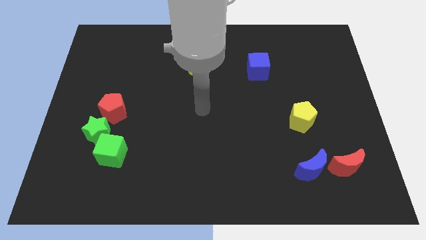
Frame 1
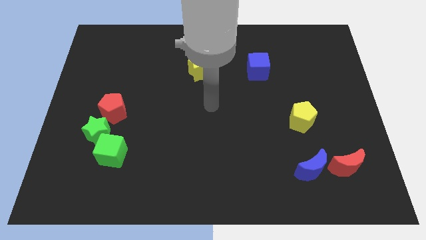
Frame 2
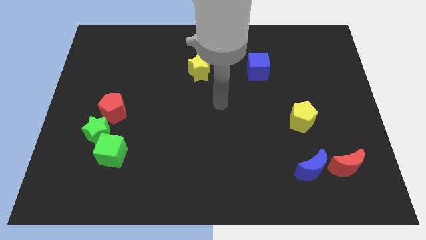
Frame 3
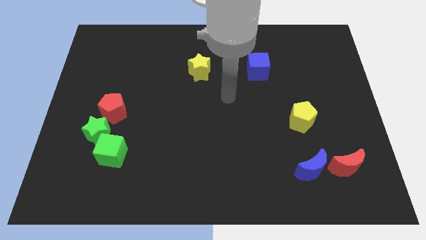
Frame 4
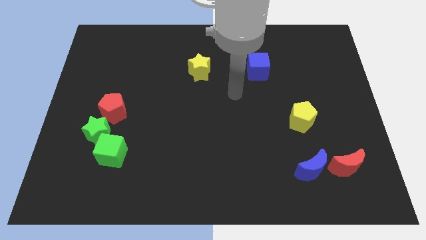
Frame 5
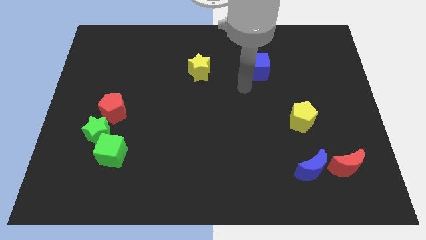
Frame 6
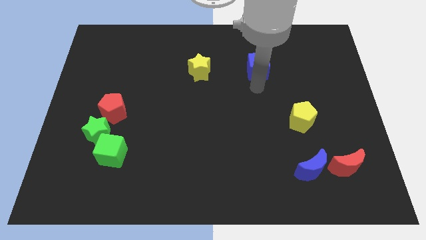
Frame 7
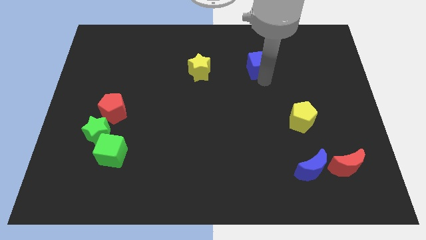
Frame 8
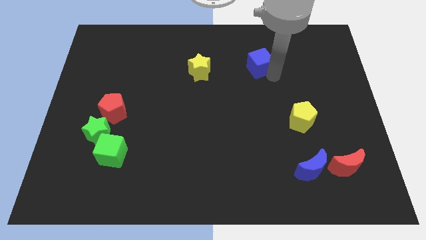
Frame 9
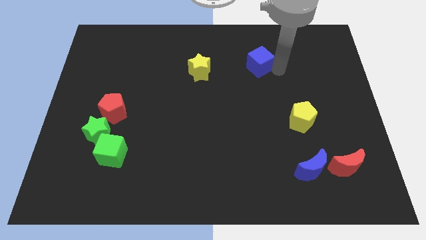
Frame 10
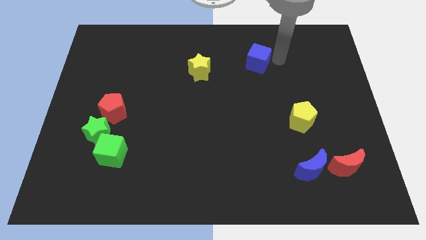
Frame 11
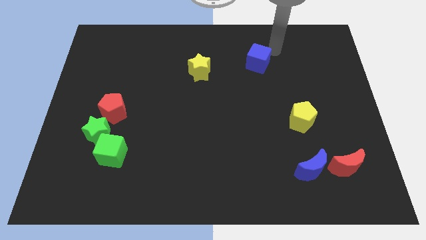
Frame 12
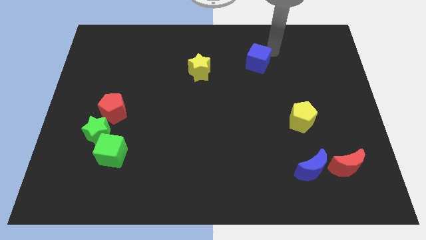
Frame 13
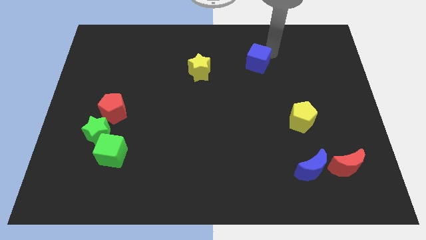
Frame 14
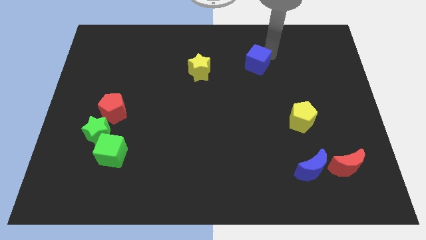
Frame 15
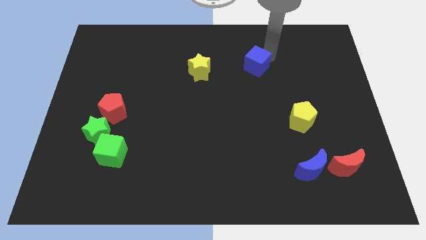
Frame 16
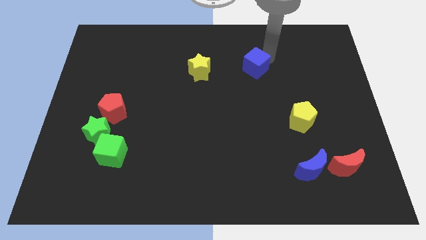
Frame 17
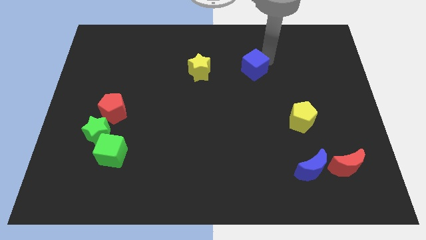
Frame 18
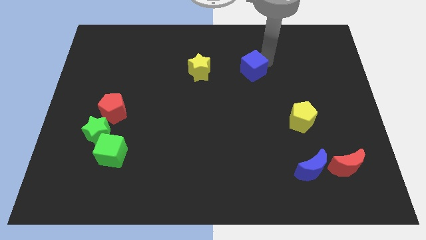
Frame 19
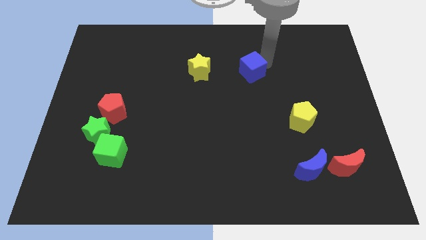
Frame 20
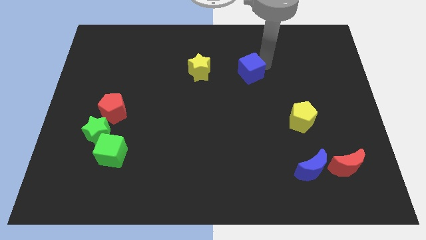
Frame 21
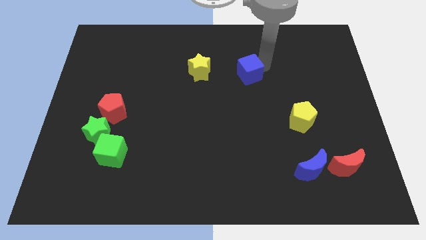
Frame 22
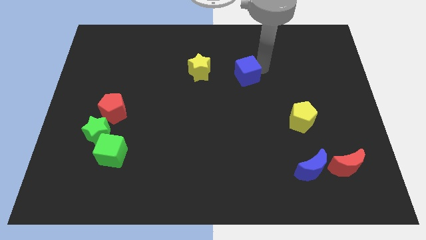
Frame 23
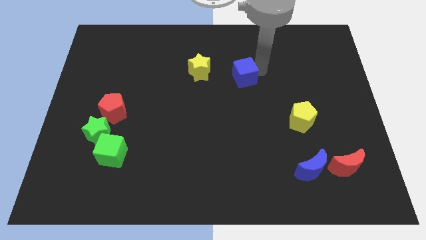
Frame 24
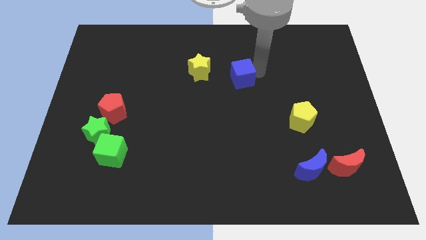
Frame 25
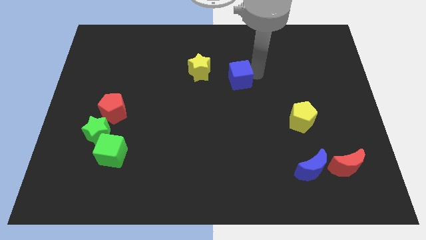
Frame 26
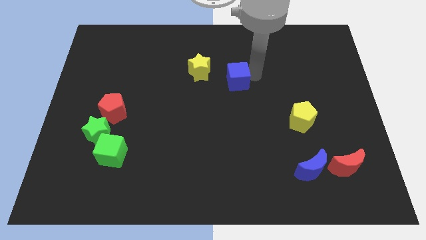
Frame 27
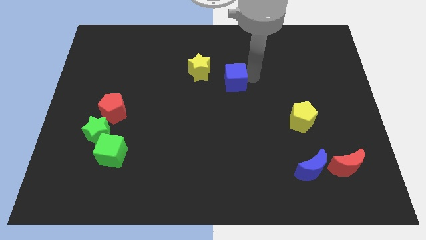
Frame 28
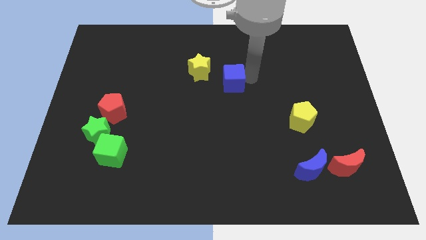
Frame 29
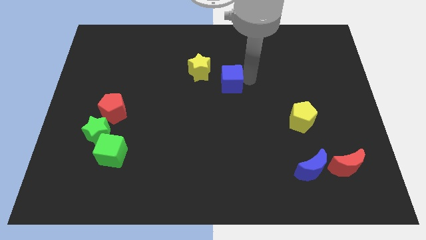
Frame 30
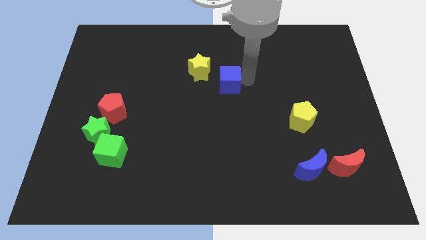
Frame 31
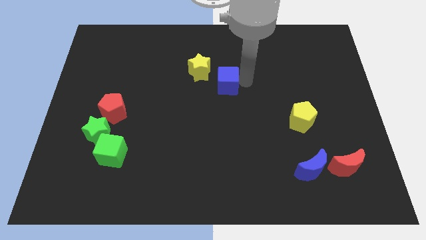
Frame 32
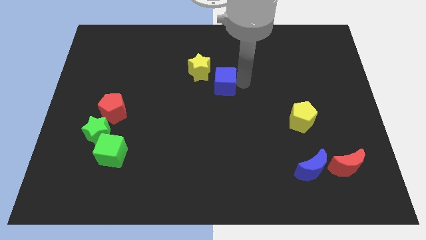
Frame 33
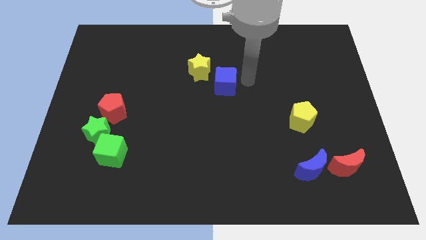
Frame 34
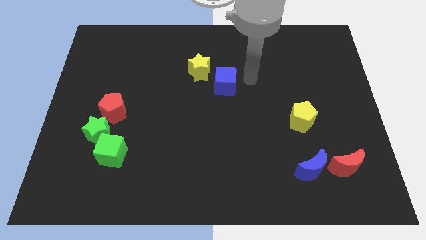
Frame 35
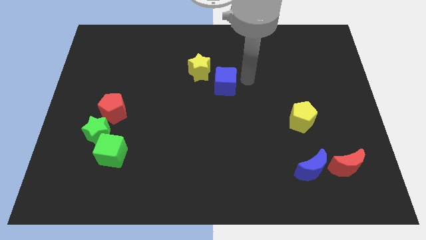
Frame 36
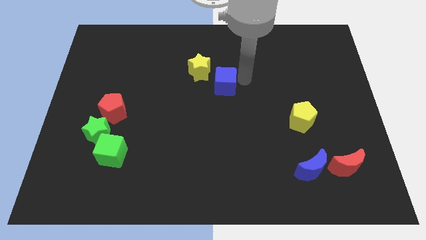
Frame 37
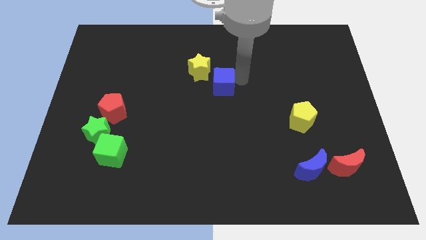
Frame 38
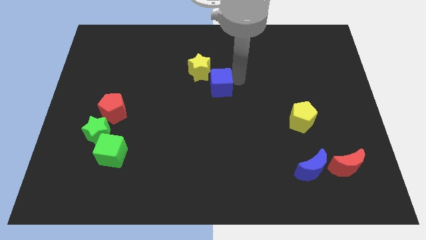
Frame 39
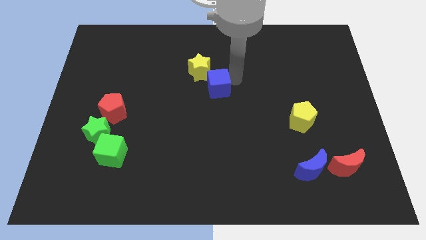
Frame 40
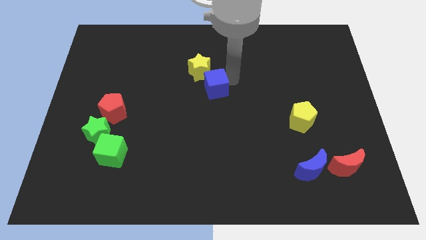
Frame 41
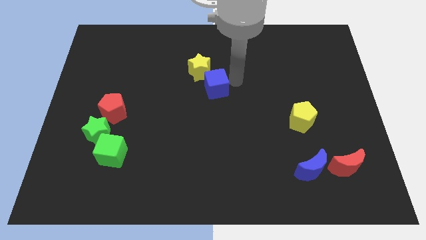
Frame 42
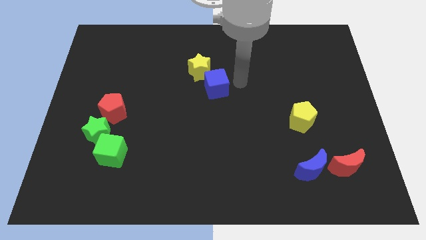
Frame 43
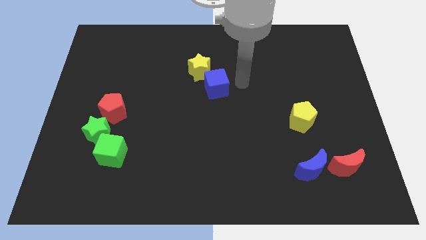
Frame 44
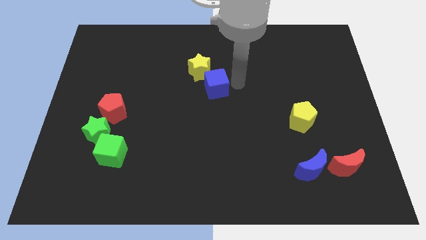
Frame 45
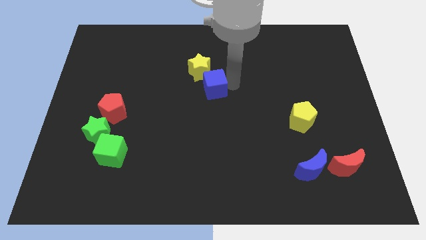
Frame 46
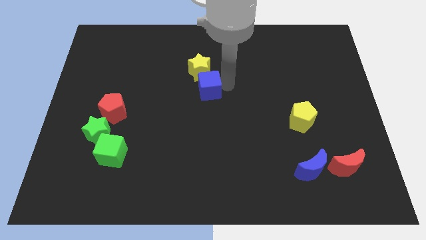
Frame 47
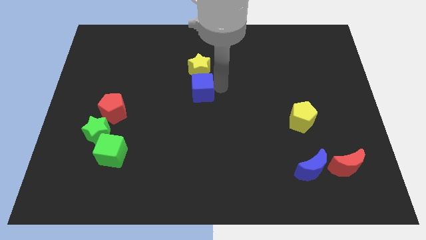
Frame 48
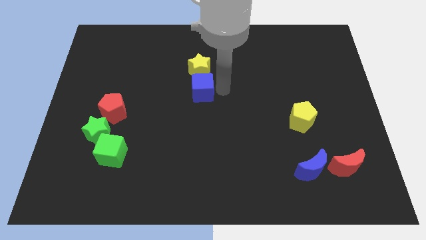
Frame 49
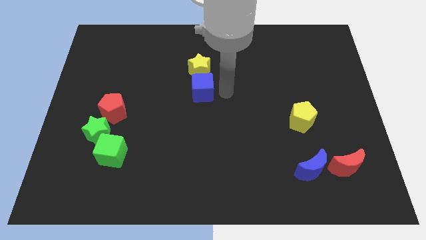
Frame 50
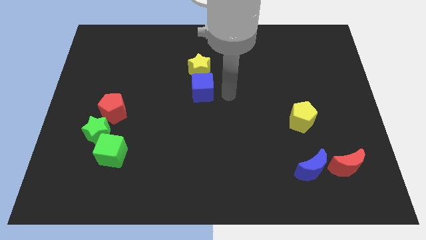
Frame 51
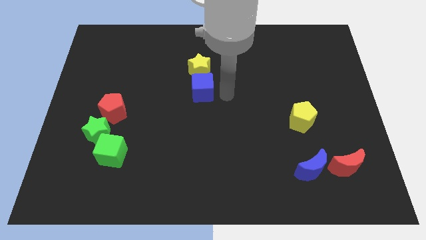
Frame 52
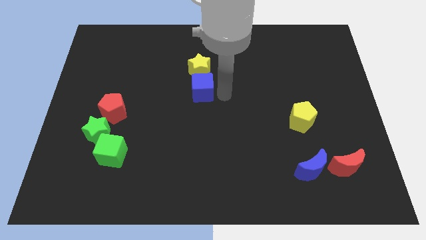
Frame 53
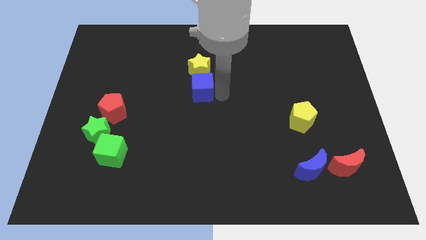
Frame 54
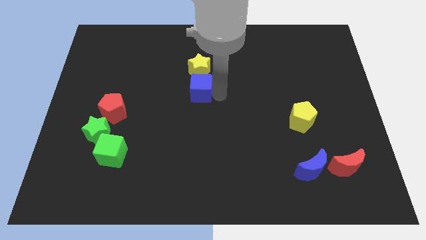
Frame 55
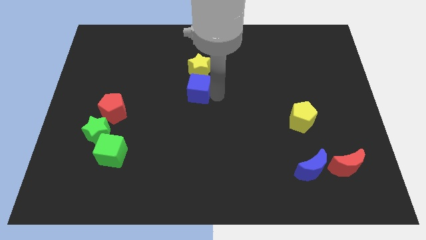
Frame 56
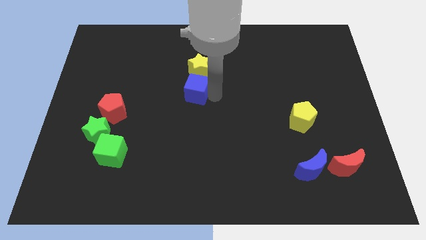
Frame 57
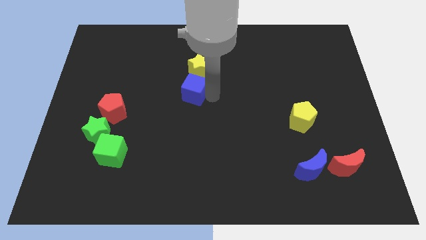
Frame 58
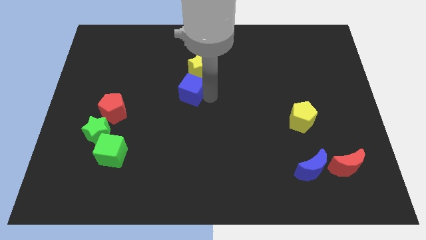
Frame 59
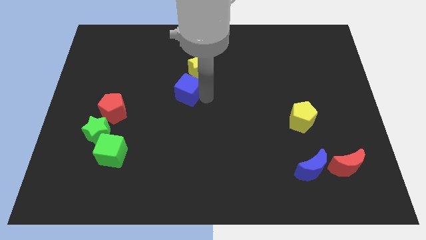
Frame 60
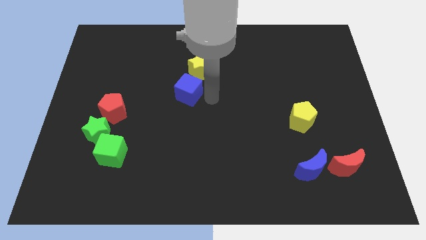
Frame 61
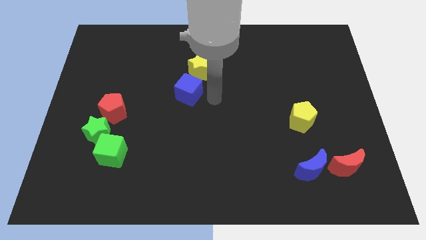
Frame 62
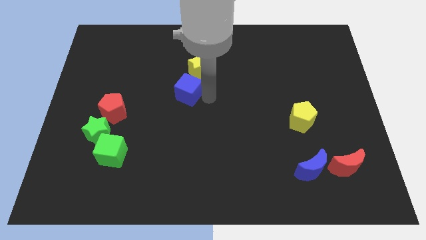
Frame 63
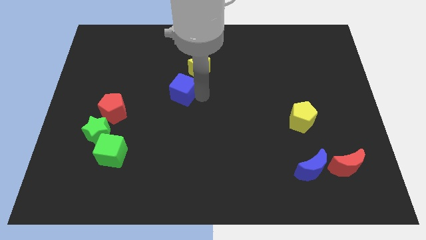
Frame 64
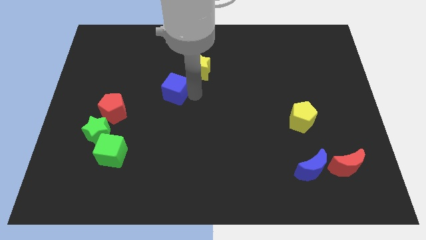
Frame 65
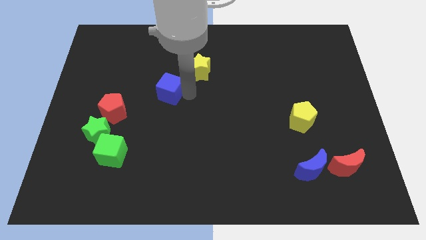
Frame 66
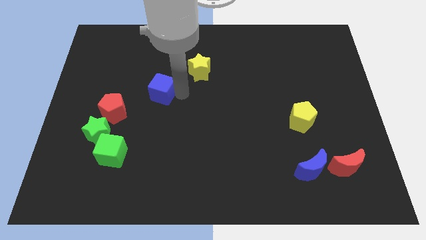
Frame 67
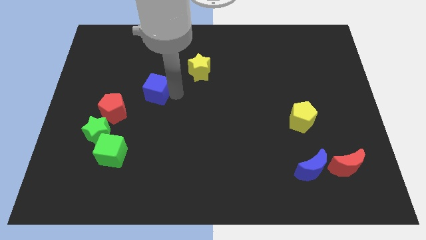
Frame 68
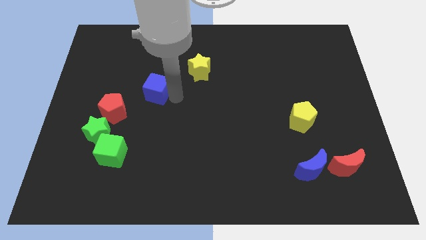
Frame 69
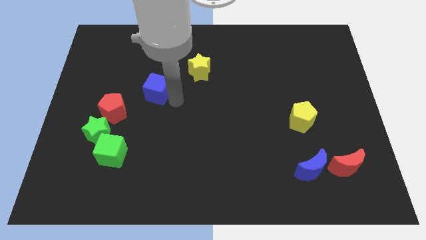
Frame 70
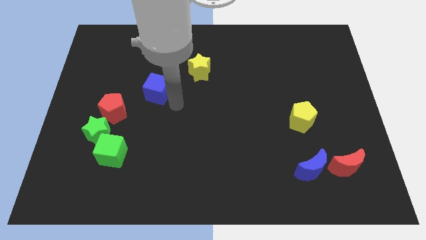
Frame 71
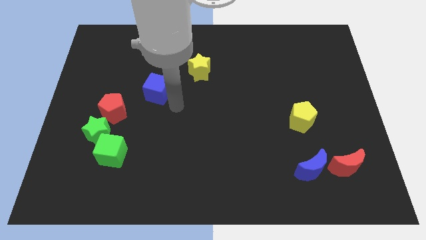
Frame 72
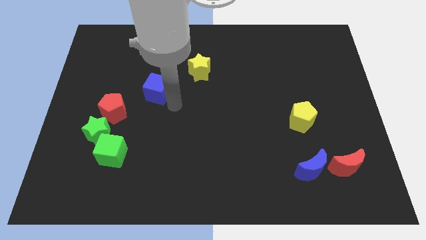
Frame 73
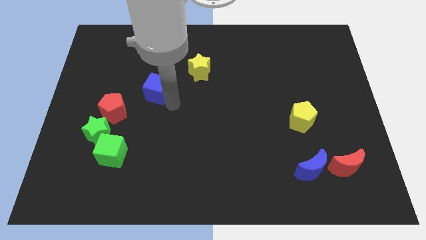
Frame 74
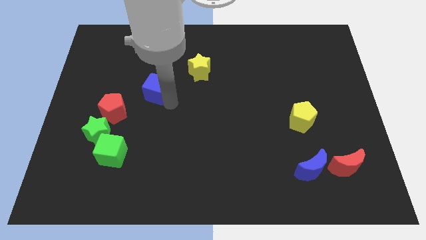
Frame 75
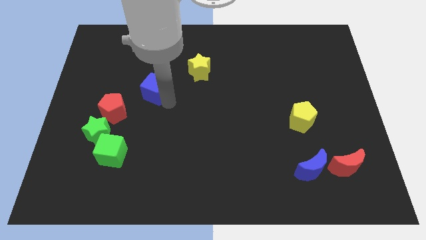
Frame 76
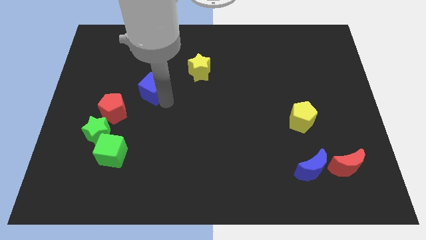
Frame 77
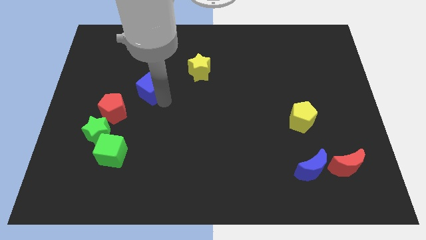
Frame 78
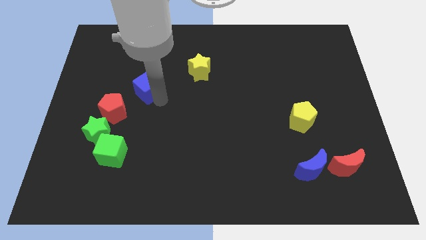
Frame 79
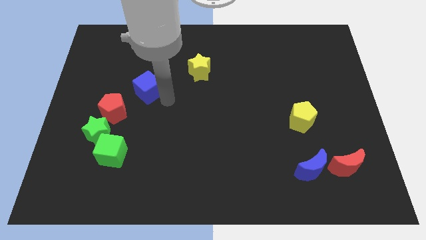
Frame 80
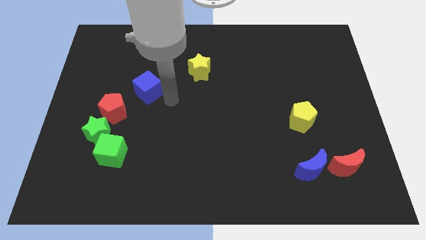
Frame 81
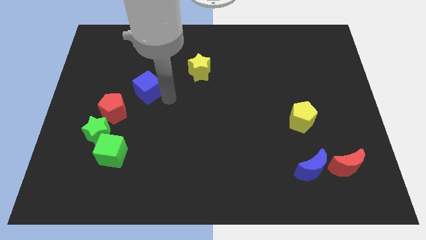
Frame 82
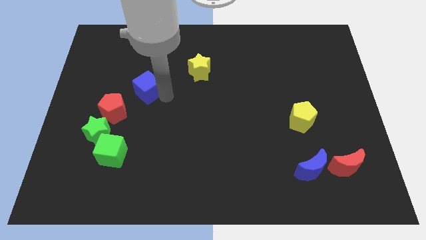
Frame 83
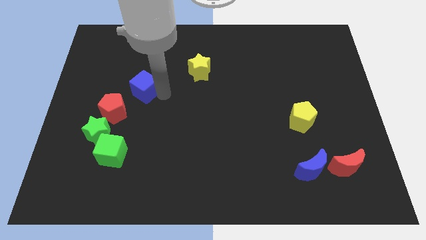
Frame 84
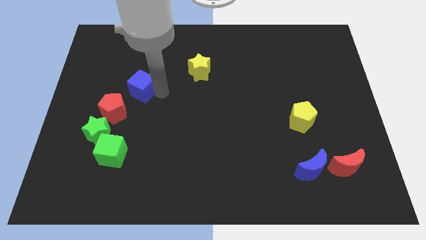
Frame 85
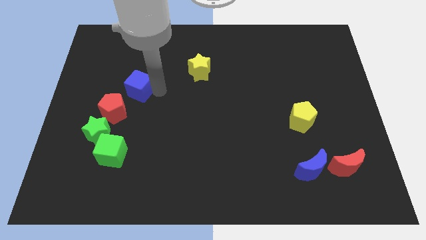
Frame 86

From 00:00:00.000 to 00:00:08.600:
slide the blue cube to the top of the red pentagon
